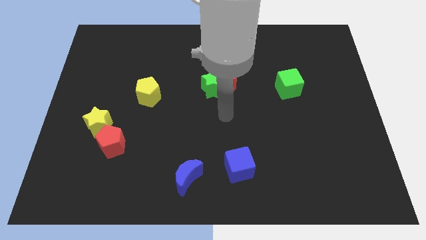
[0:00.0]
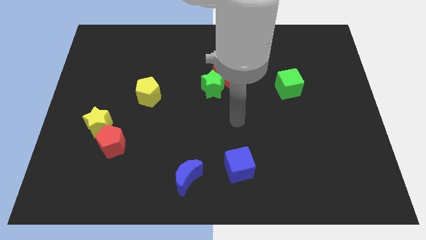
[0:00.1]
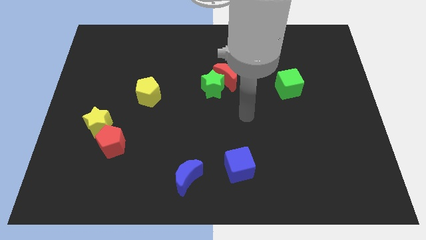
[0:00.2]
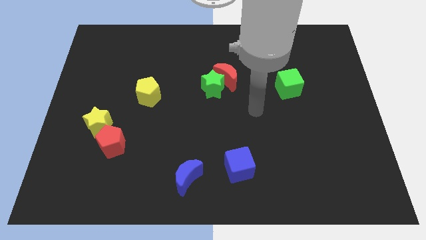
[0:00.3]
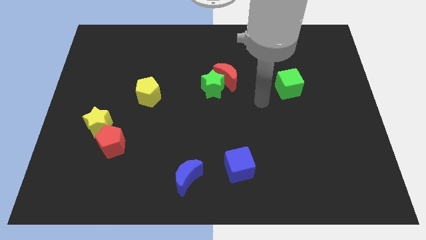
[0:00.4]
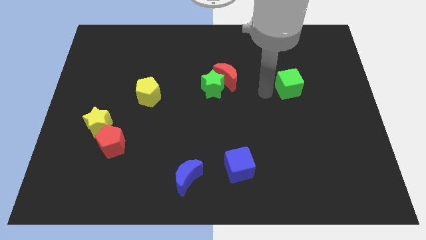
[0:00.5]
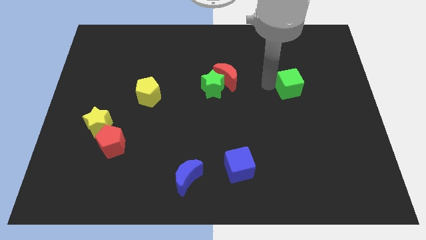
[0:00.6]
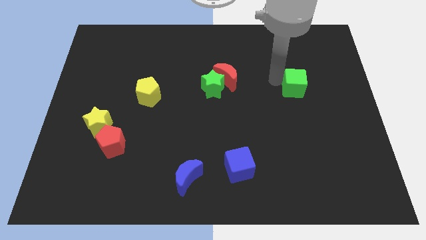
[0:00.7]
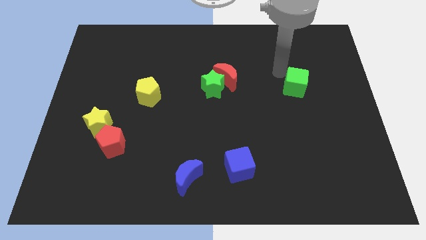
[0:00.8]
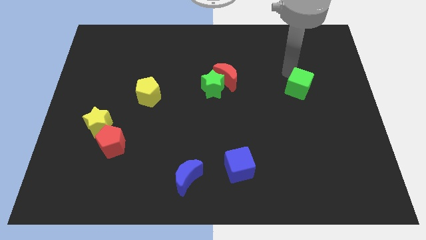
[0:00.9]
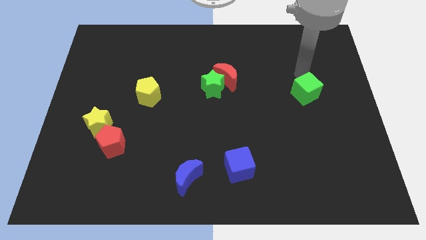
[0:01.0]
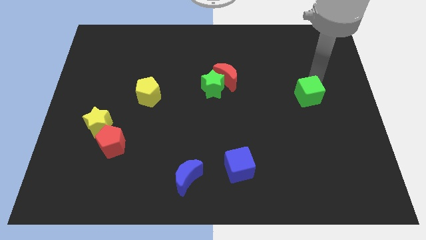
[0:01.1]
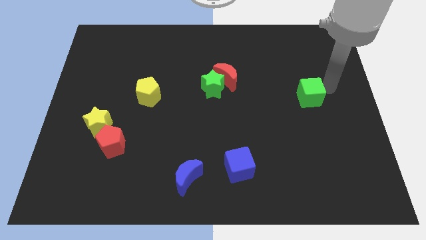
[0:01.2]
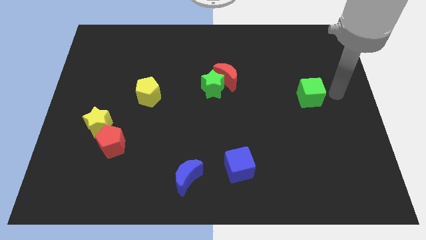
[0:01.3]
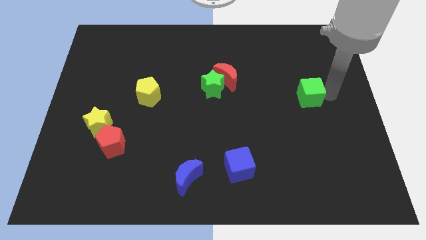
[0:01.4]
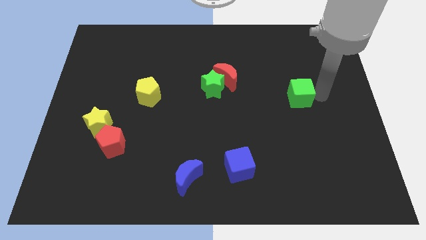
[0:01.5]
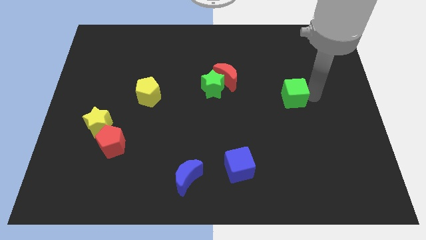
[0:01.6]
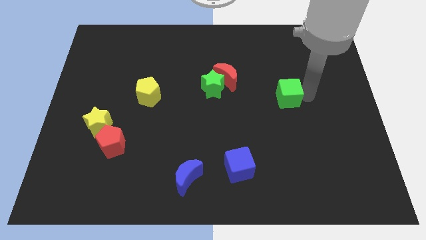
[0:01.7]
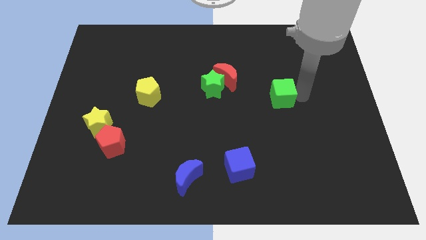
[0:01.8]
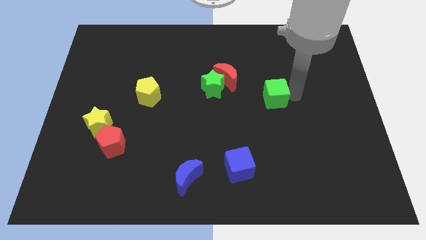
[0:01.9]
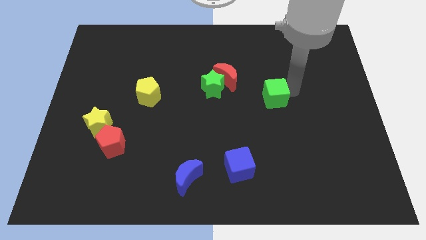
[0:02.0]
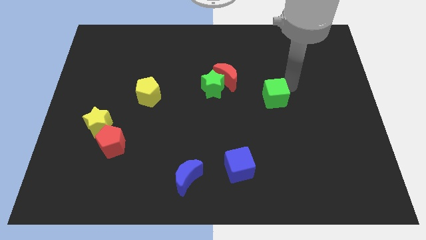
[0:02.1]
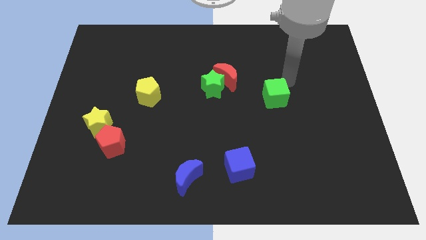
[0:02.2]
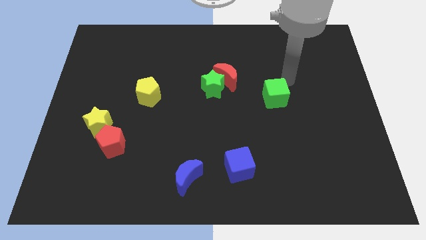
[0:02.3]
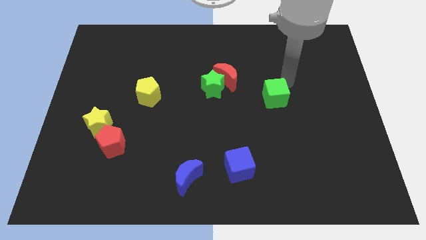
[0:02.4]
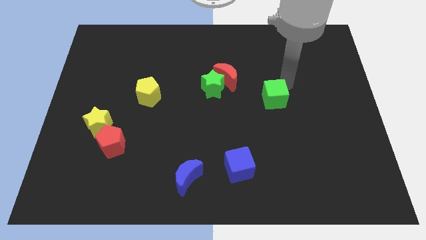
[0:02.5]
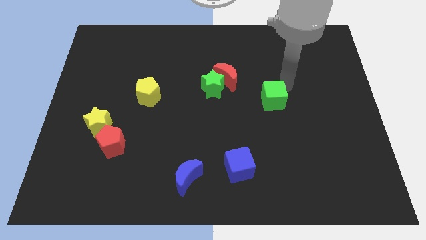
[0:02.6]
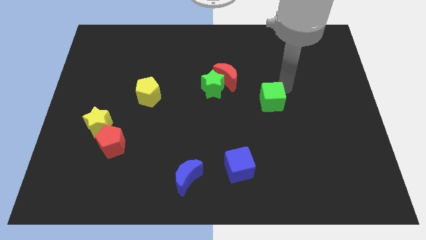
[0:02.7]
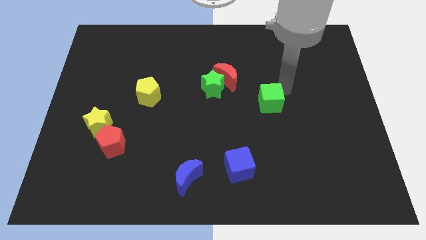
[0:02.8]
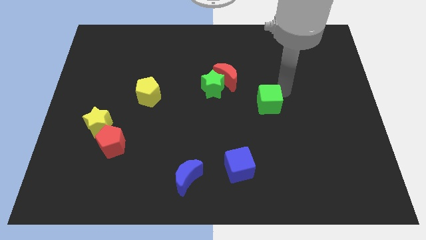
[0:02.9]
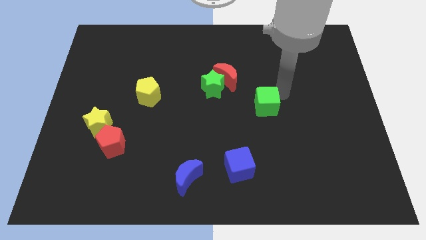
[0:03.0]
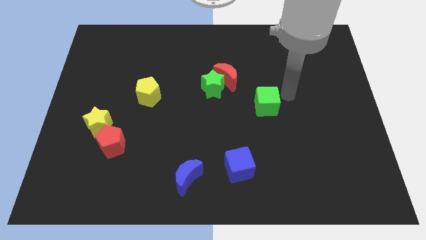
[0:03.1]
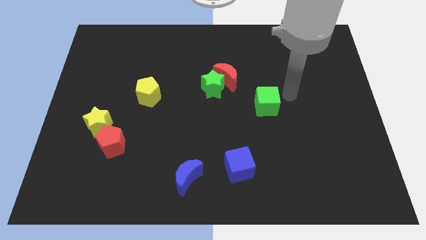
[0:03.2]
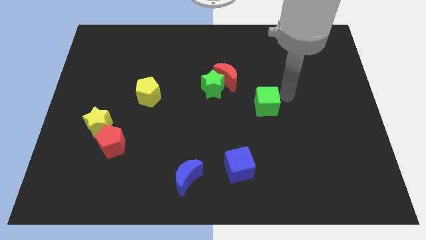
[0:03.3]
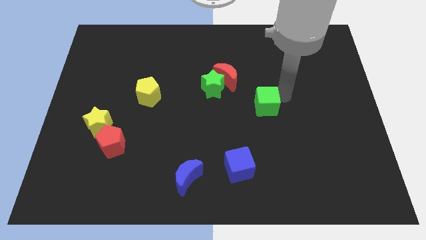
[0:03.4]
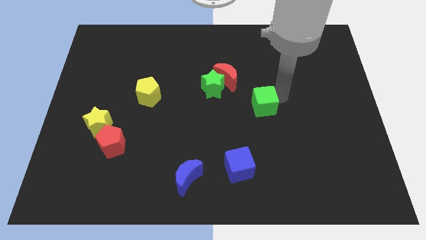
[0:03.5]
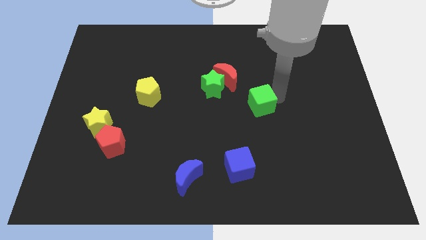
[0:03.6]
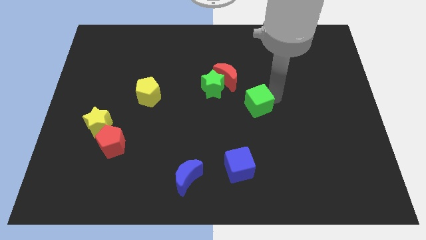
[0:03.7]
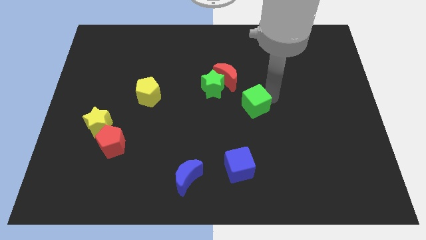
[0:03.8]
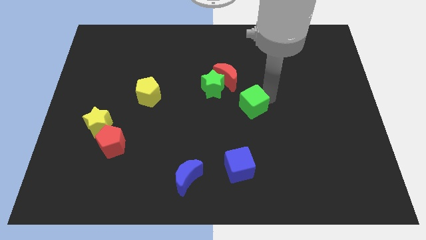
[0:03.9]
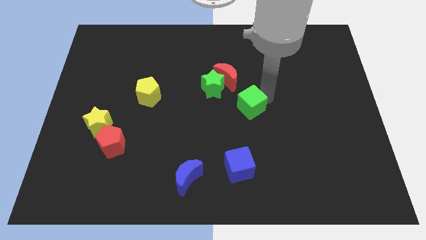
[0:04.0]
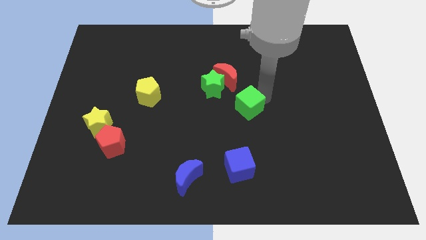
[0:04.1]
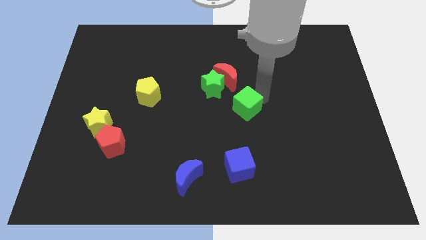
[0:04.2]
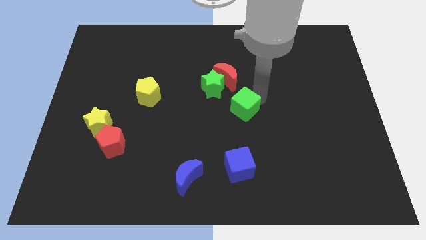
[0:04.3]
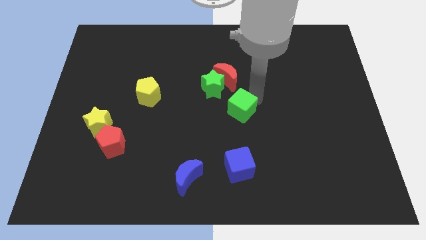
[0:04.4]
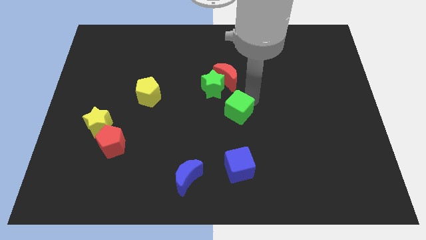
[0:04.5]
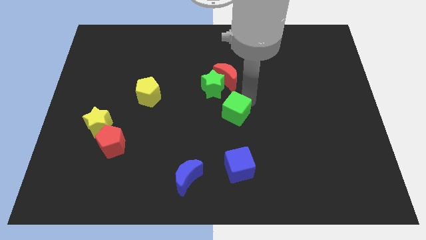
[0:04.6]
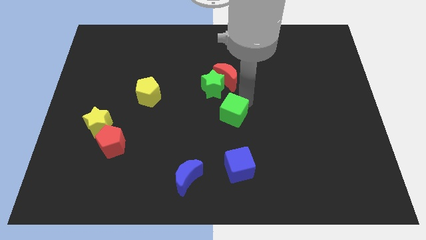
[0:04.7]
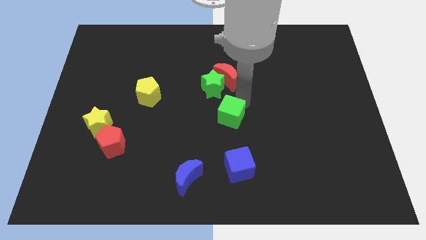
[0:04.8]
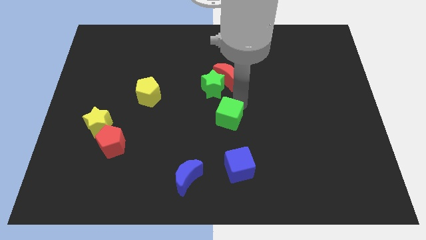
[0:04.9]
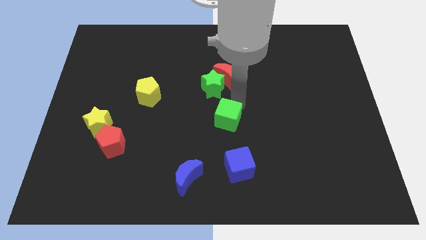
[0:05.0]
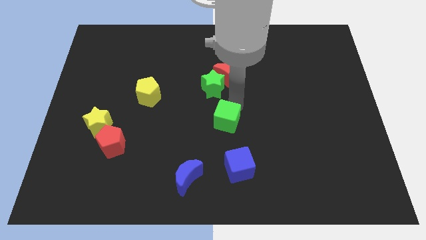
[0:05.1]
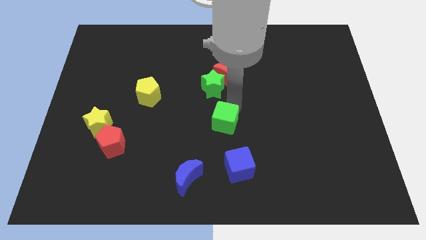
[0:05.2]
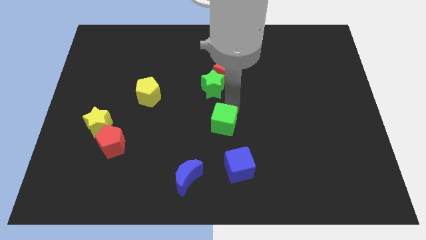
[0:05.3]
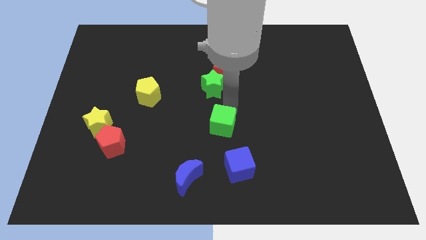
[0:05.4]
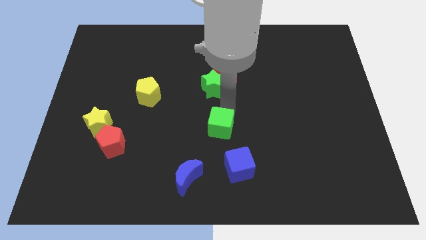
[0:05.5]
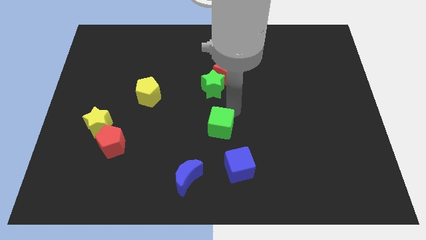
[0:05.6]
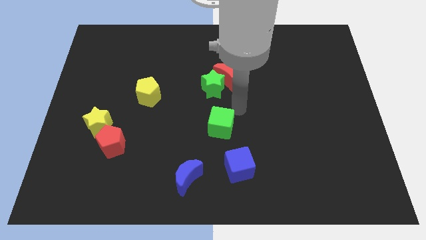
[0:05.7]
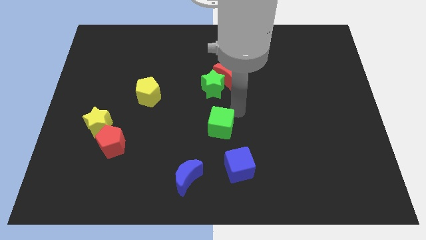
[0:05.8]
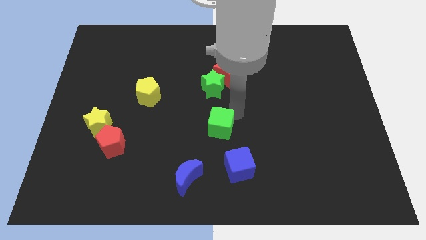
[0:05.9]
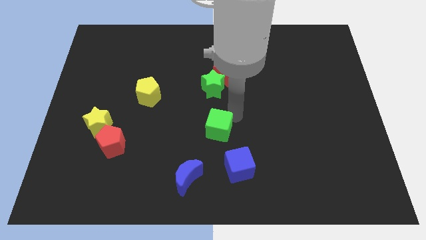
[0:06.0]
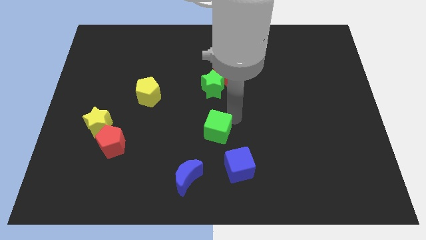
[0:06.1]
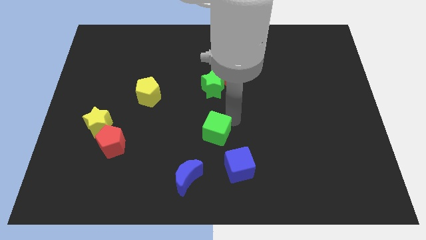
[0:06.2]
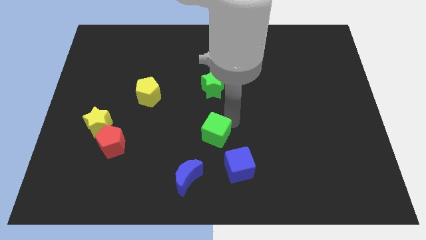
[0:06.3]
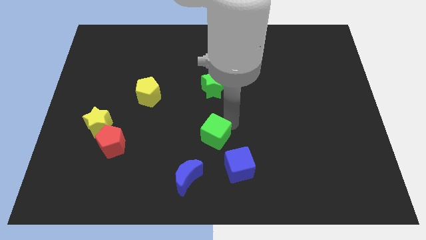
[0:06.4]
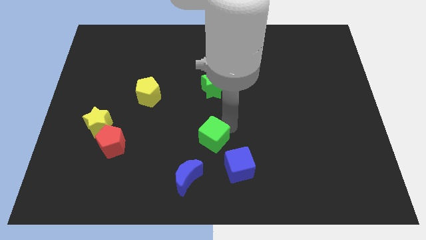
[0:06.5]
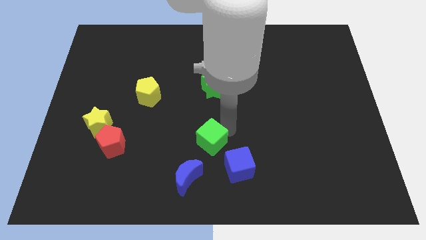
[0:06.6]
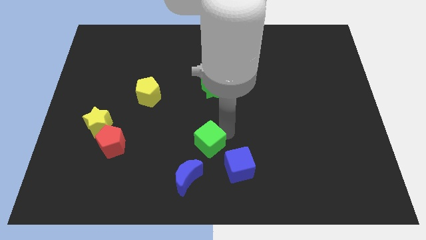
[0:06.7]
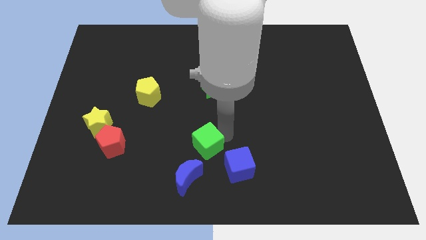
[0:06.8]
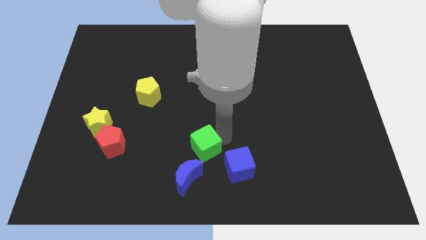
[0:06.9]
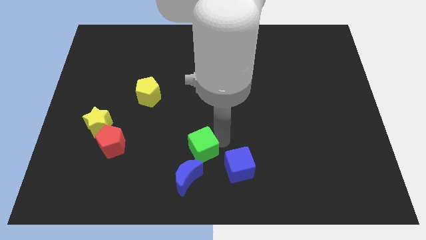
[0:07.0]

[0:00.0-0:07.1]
slide the green cube to the left of the blue cube
